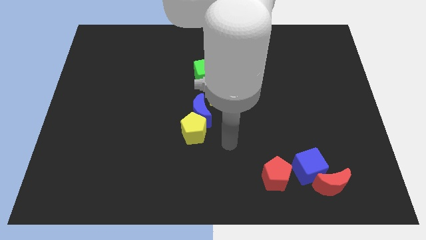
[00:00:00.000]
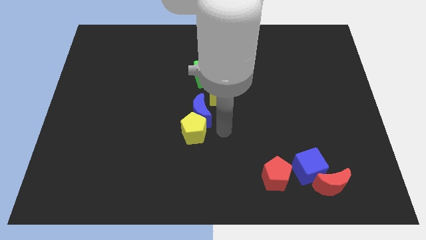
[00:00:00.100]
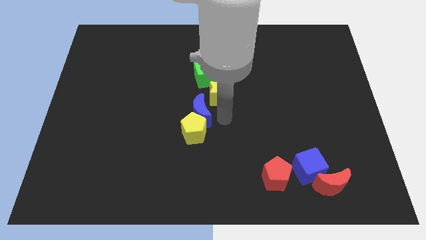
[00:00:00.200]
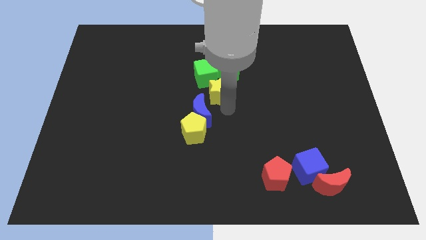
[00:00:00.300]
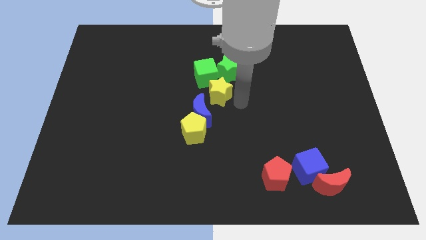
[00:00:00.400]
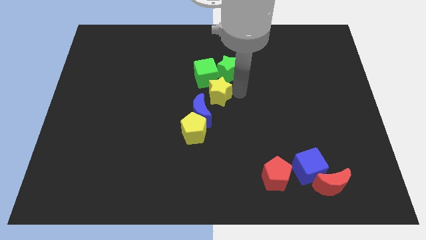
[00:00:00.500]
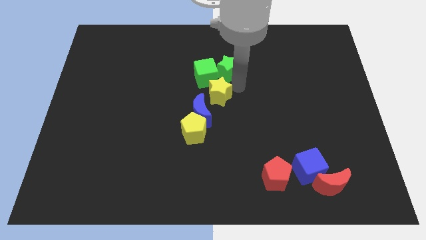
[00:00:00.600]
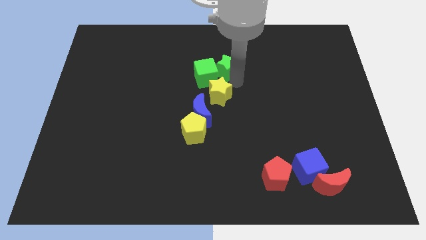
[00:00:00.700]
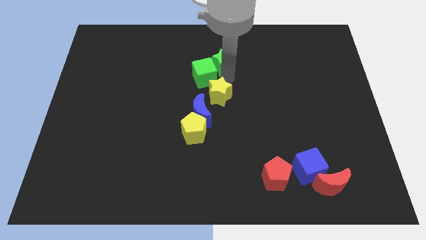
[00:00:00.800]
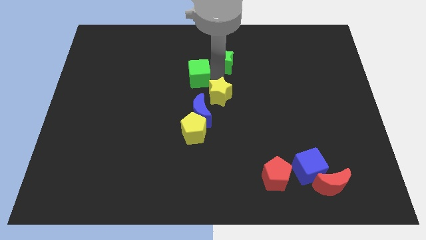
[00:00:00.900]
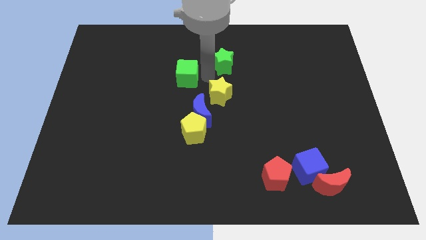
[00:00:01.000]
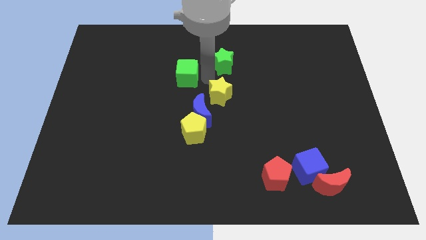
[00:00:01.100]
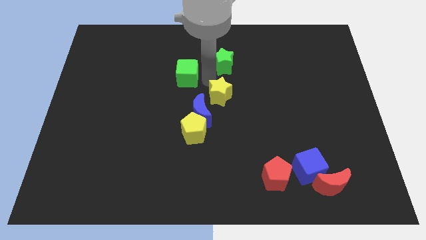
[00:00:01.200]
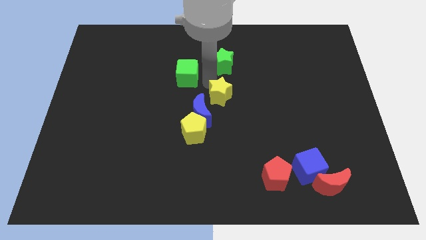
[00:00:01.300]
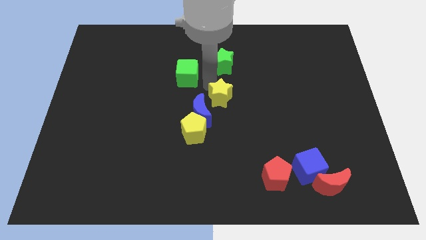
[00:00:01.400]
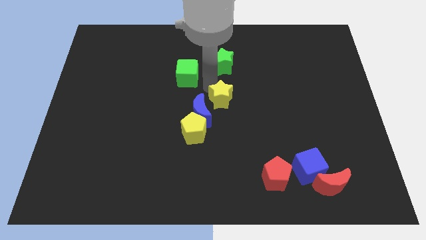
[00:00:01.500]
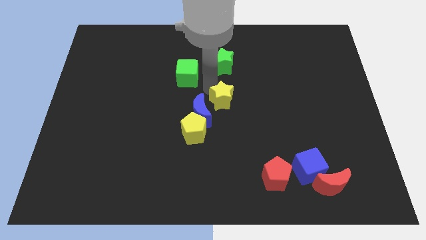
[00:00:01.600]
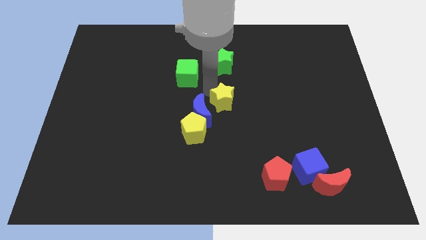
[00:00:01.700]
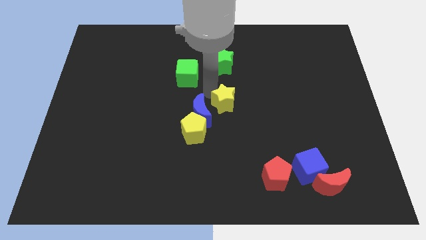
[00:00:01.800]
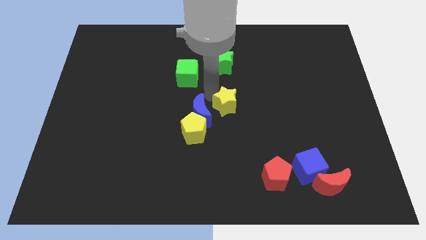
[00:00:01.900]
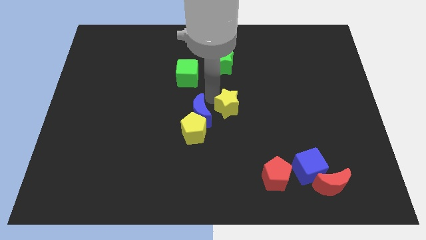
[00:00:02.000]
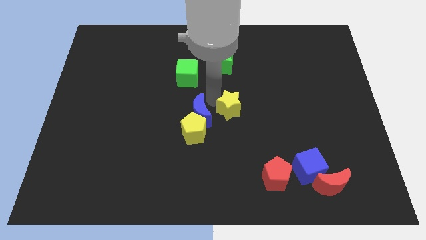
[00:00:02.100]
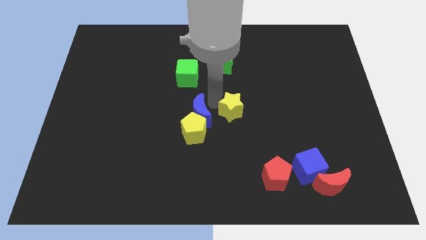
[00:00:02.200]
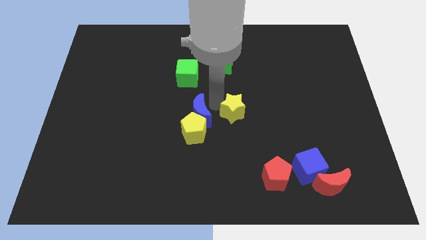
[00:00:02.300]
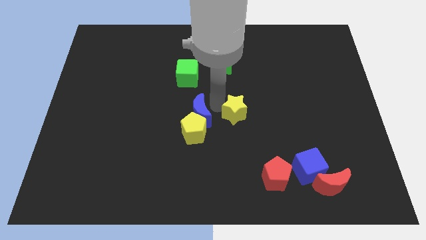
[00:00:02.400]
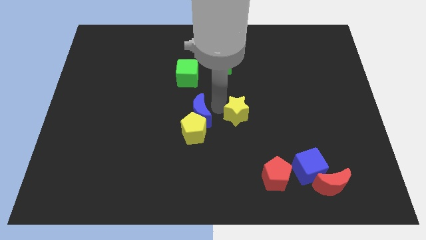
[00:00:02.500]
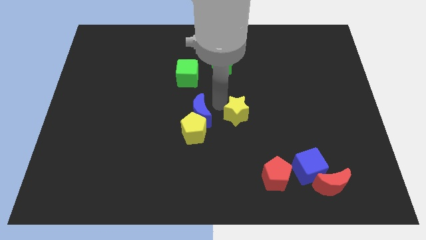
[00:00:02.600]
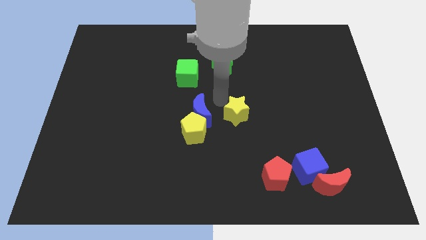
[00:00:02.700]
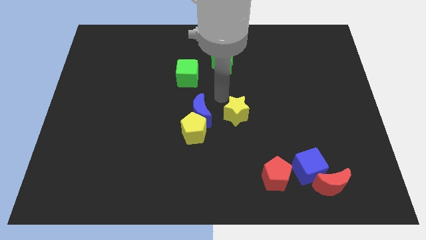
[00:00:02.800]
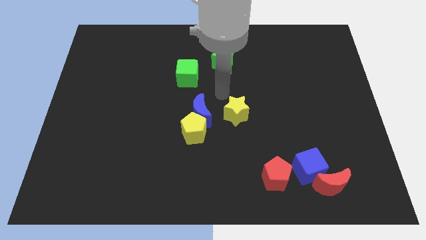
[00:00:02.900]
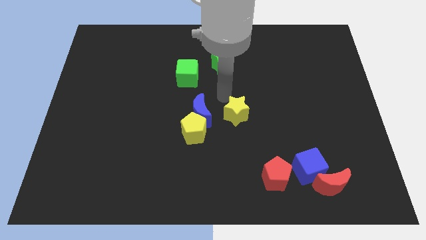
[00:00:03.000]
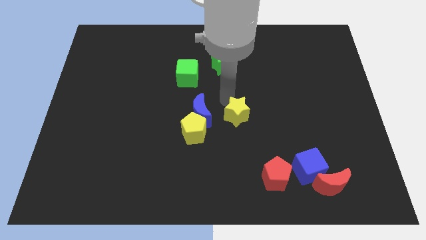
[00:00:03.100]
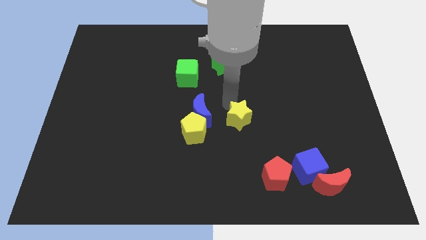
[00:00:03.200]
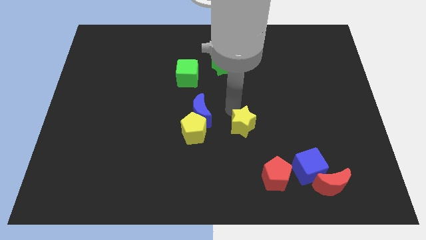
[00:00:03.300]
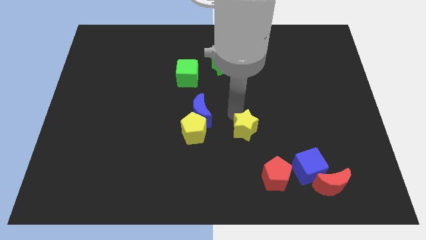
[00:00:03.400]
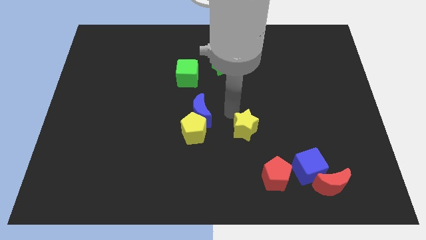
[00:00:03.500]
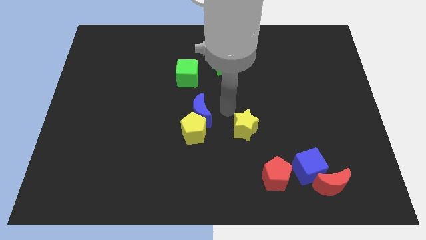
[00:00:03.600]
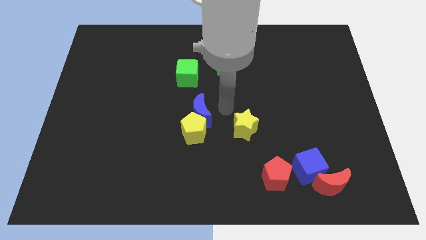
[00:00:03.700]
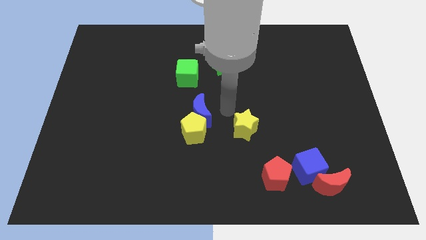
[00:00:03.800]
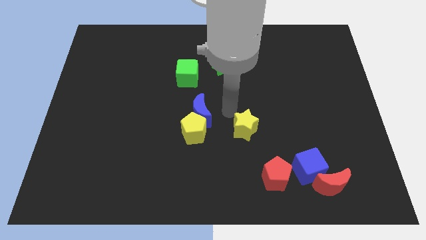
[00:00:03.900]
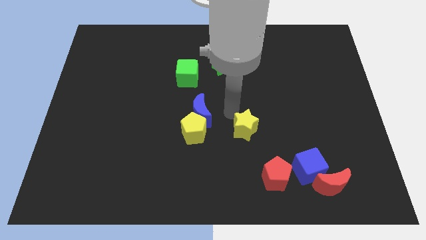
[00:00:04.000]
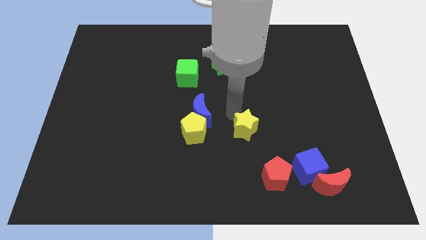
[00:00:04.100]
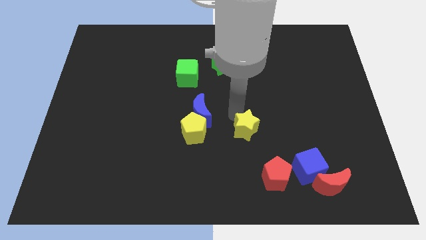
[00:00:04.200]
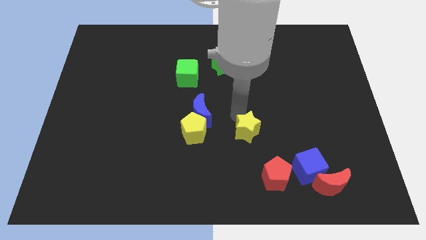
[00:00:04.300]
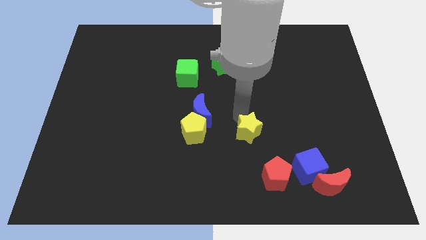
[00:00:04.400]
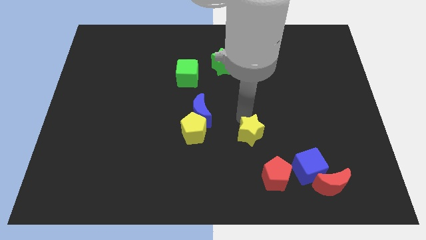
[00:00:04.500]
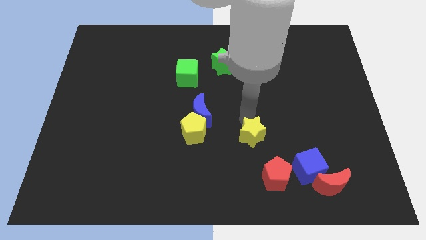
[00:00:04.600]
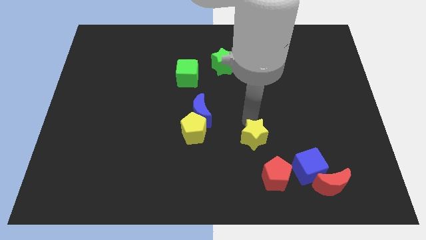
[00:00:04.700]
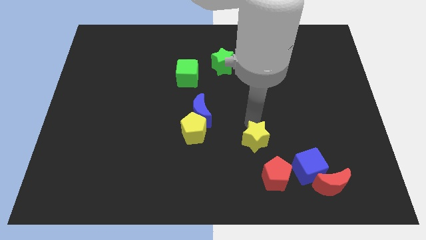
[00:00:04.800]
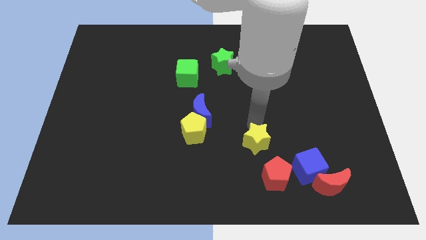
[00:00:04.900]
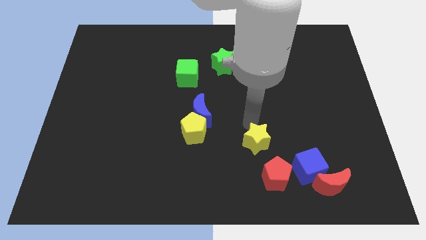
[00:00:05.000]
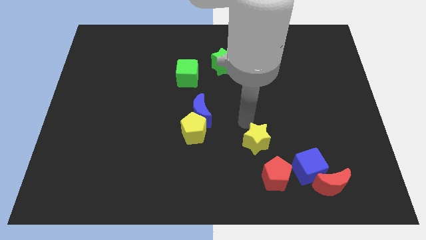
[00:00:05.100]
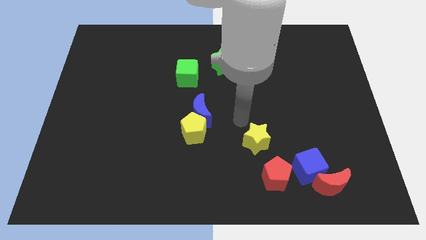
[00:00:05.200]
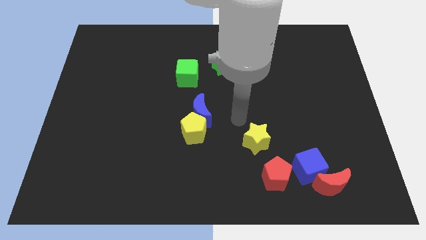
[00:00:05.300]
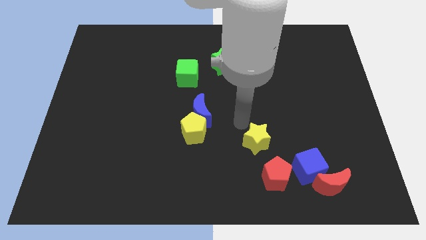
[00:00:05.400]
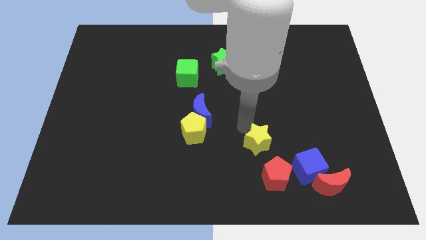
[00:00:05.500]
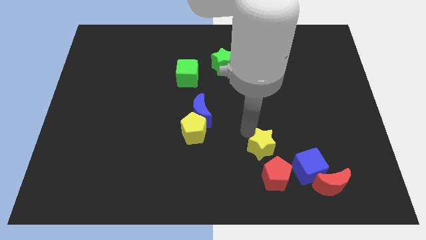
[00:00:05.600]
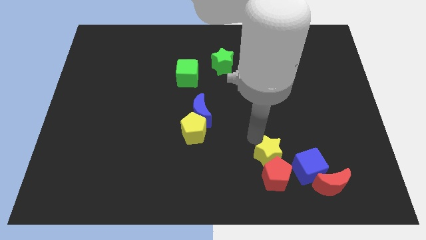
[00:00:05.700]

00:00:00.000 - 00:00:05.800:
push the yellow star to the red pentagon

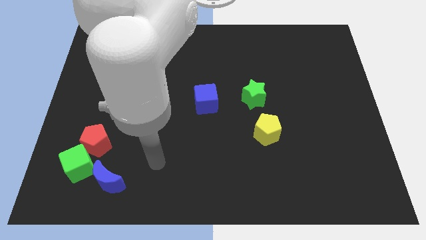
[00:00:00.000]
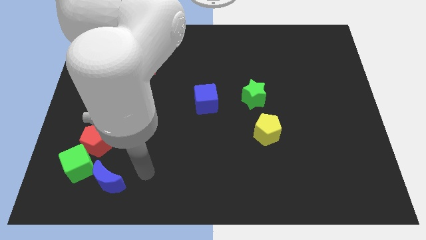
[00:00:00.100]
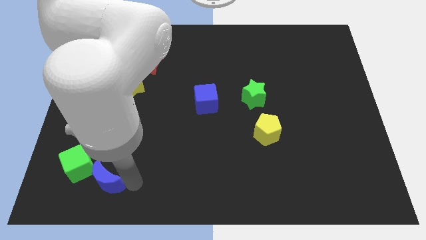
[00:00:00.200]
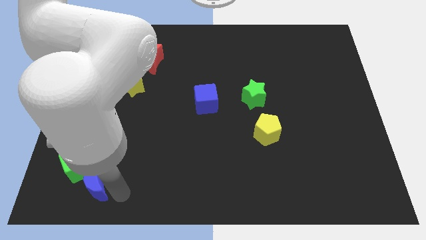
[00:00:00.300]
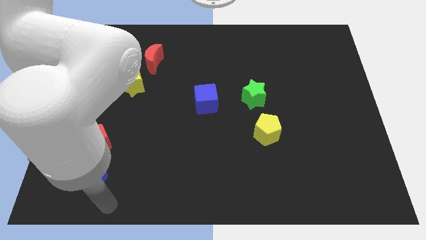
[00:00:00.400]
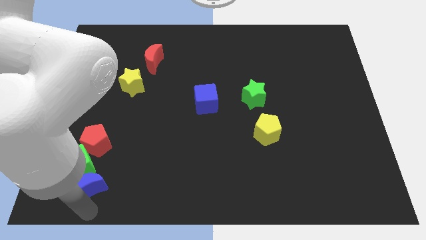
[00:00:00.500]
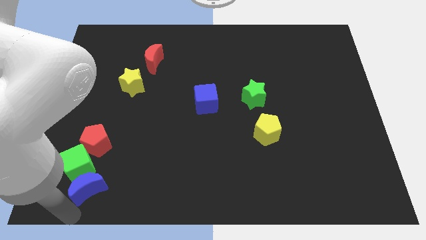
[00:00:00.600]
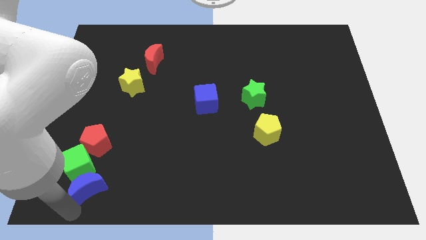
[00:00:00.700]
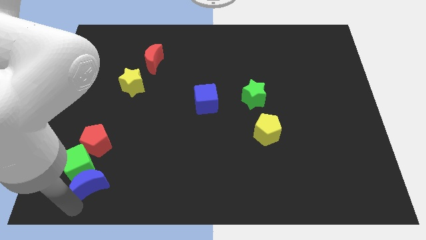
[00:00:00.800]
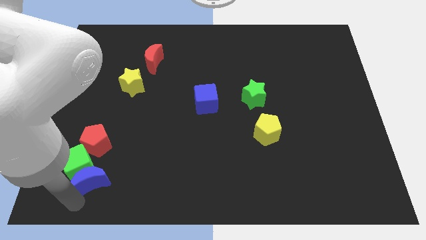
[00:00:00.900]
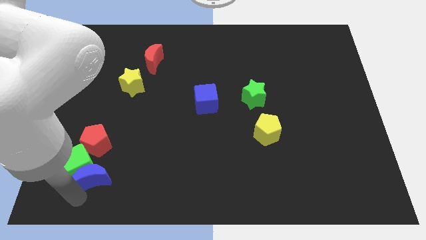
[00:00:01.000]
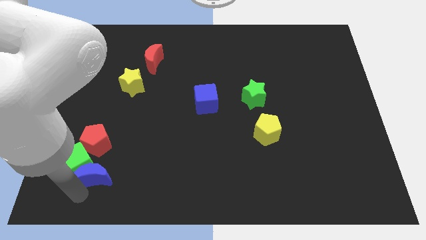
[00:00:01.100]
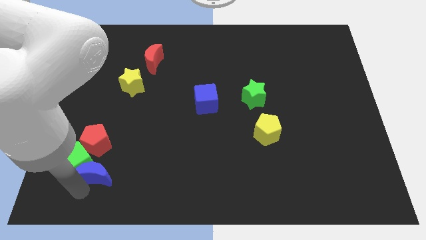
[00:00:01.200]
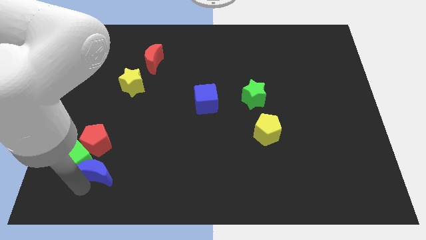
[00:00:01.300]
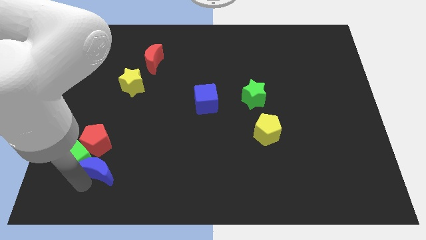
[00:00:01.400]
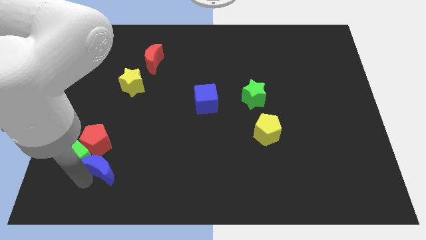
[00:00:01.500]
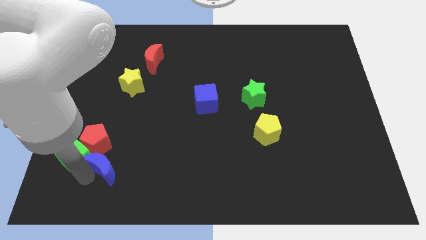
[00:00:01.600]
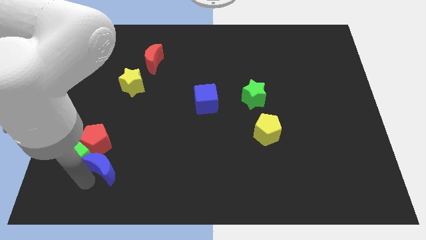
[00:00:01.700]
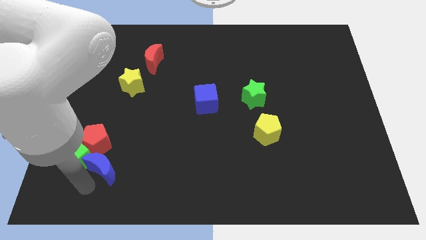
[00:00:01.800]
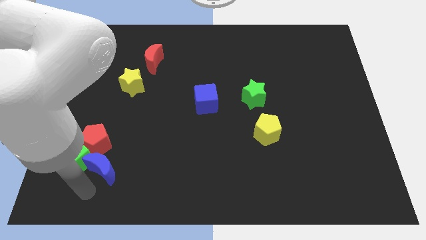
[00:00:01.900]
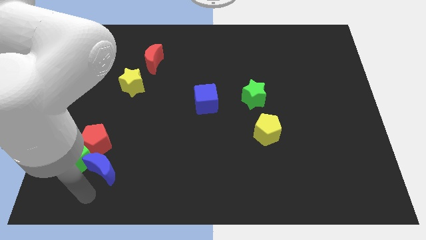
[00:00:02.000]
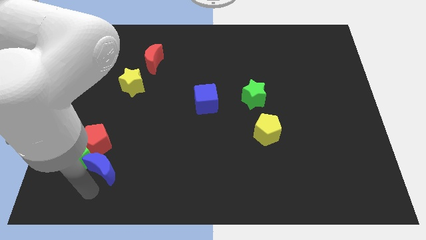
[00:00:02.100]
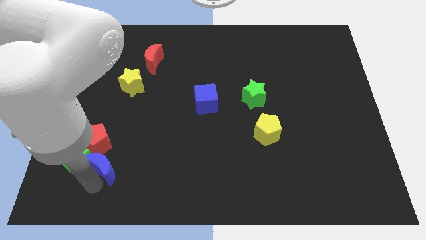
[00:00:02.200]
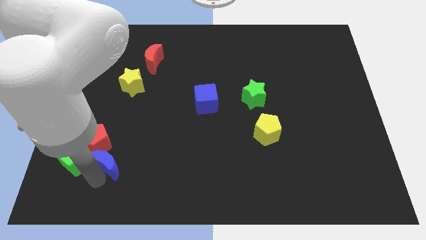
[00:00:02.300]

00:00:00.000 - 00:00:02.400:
push the blue moon to the red pentagon
